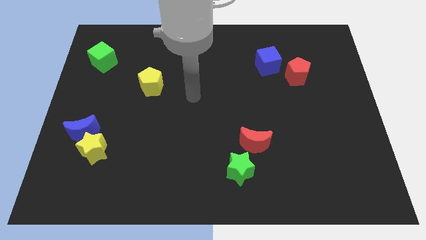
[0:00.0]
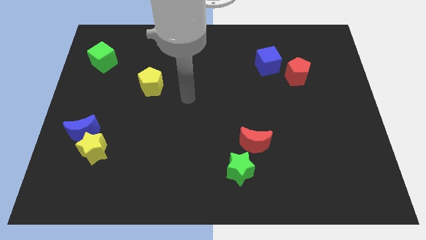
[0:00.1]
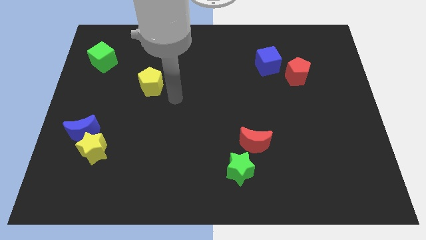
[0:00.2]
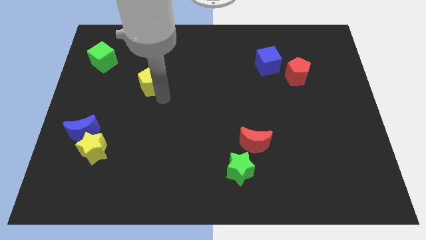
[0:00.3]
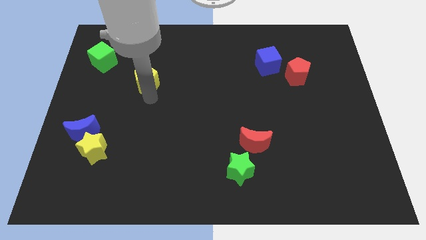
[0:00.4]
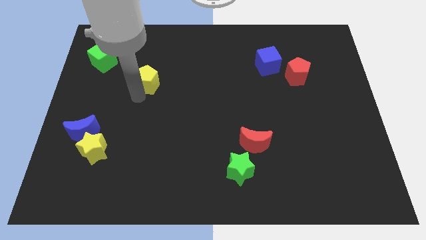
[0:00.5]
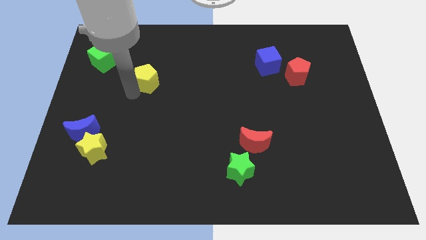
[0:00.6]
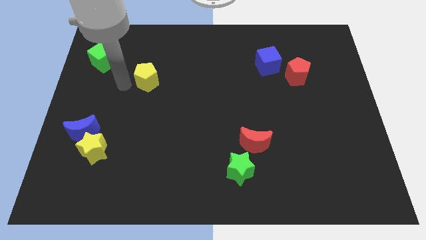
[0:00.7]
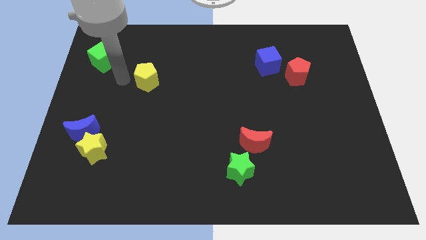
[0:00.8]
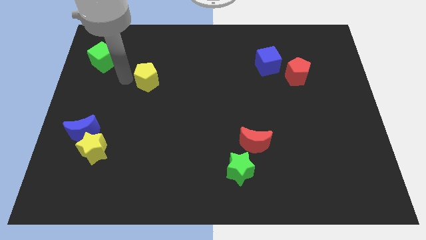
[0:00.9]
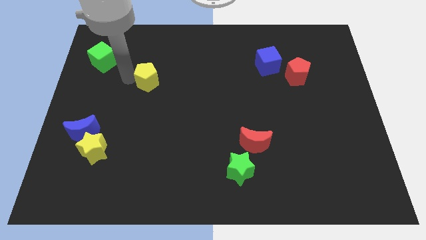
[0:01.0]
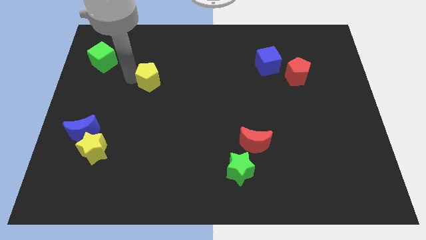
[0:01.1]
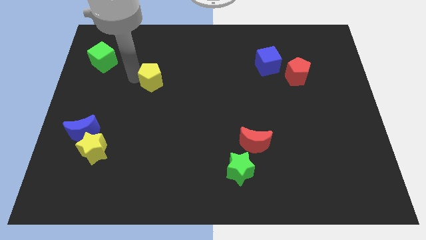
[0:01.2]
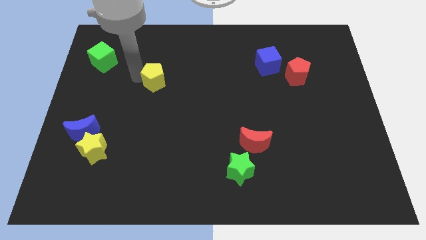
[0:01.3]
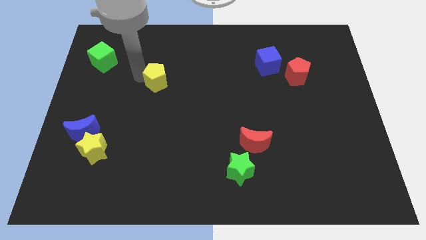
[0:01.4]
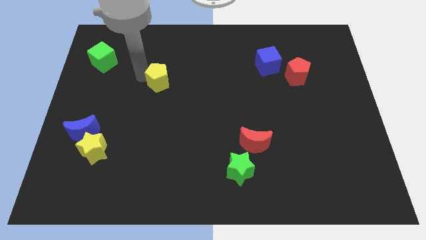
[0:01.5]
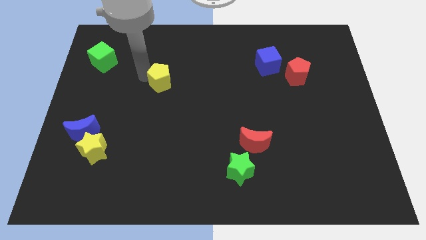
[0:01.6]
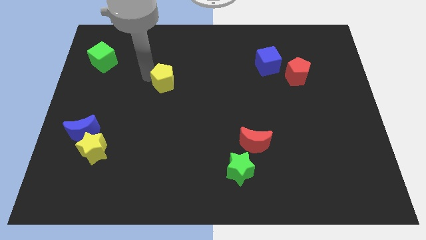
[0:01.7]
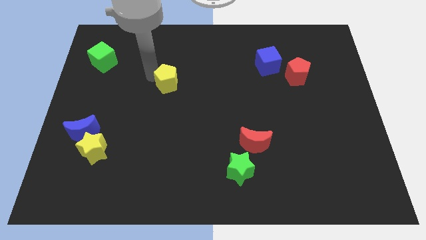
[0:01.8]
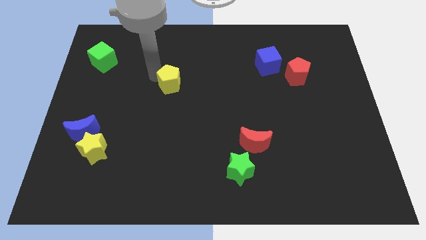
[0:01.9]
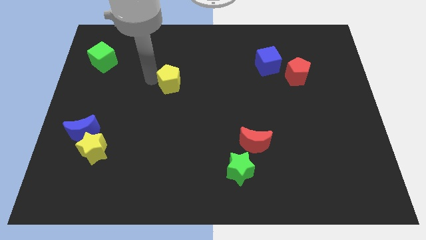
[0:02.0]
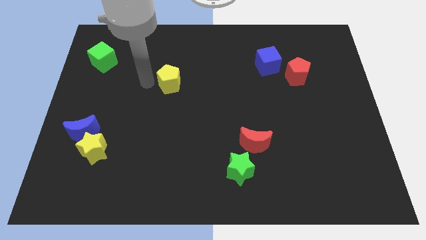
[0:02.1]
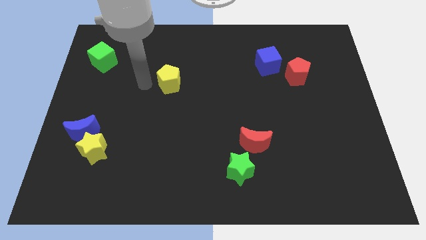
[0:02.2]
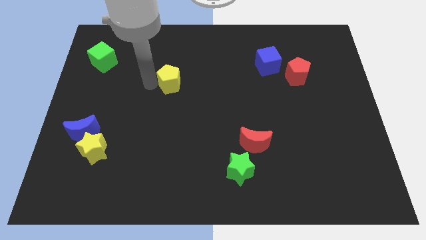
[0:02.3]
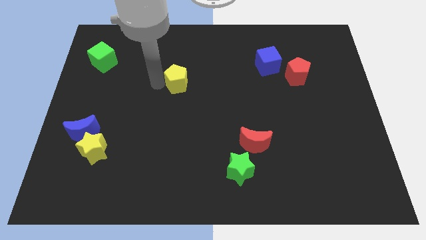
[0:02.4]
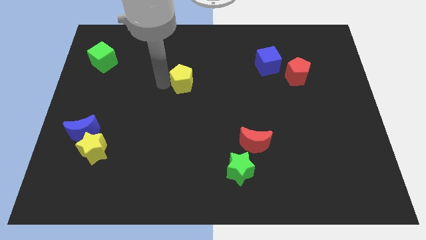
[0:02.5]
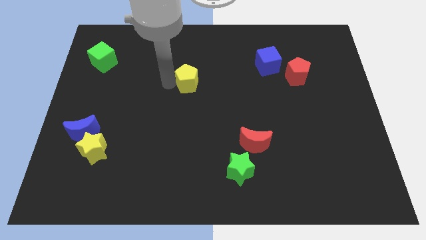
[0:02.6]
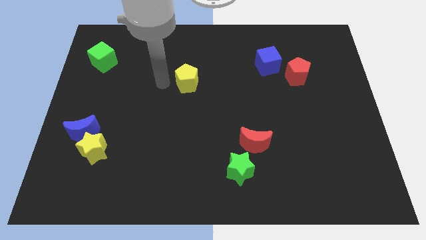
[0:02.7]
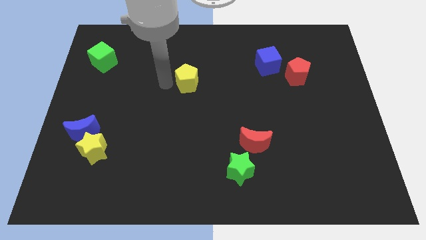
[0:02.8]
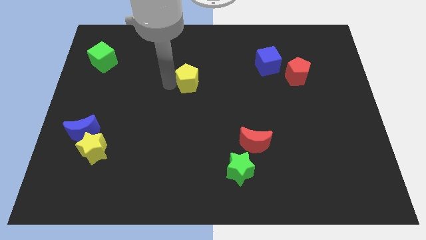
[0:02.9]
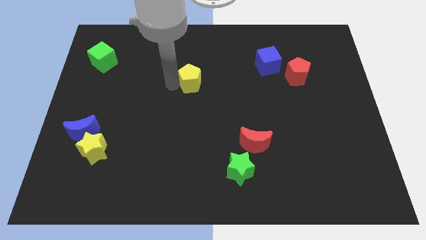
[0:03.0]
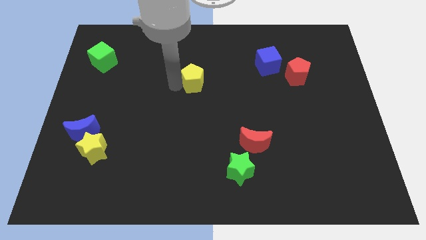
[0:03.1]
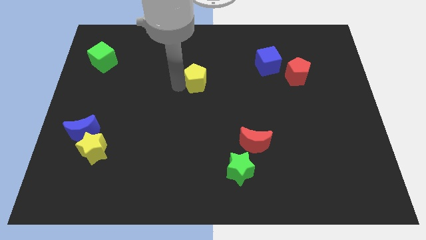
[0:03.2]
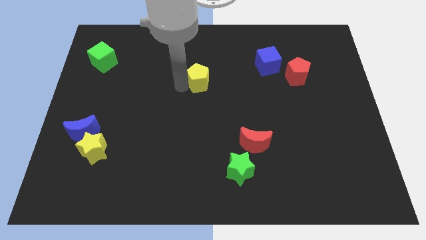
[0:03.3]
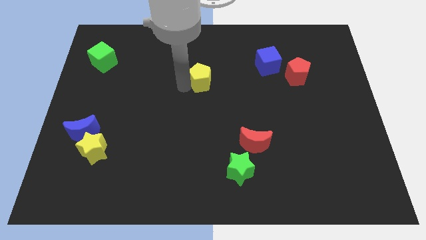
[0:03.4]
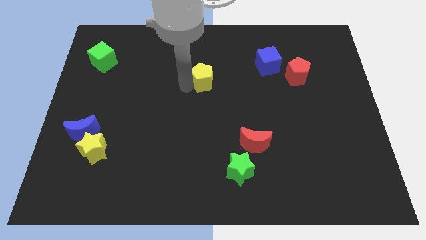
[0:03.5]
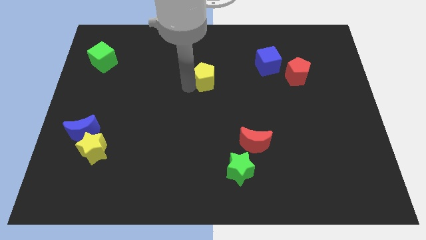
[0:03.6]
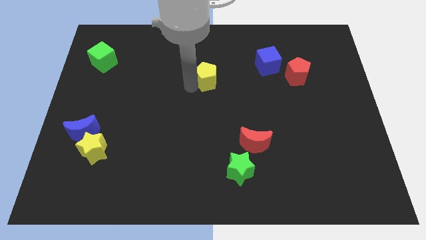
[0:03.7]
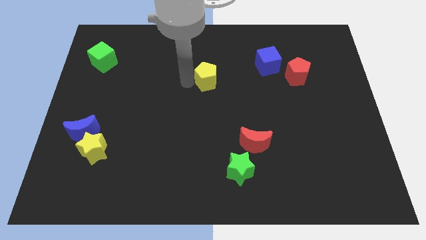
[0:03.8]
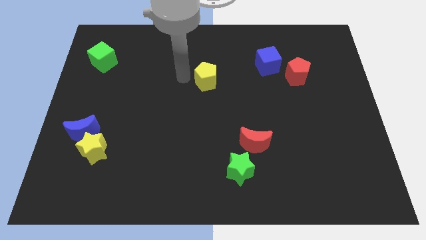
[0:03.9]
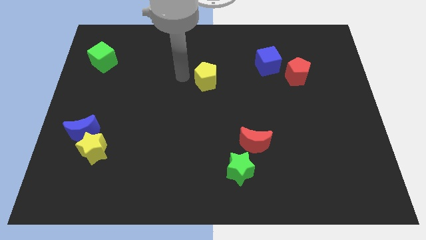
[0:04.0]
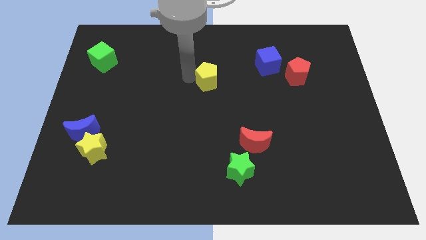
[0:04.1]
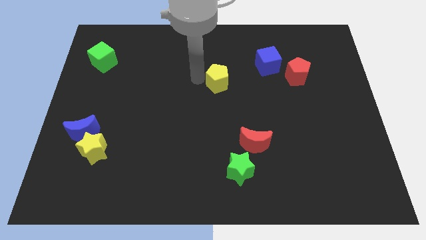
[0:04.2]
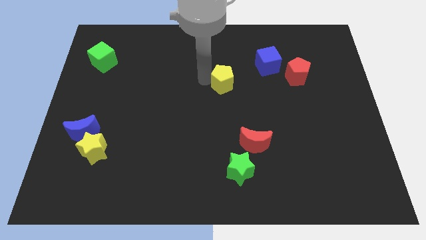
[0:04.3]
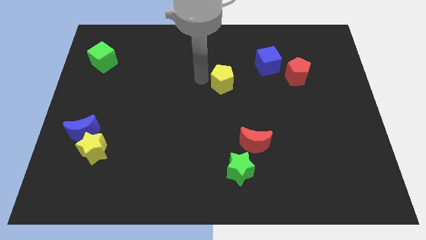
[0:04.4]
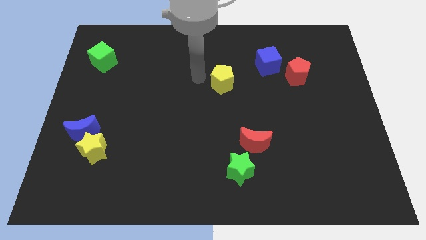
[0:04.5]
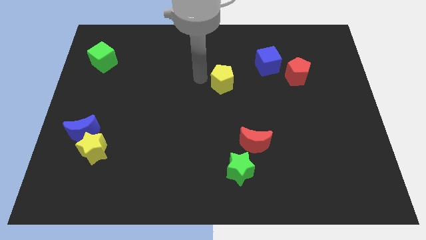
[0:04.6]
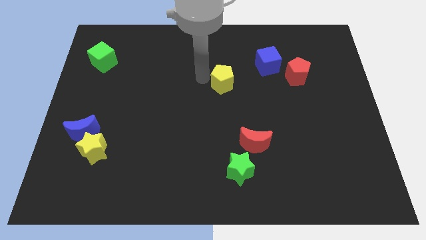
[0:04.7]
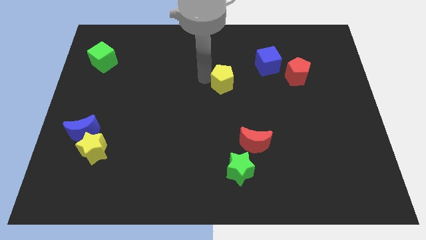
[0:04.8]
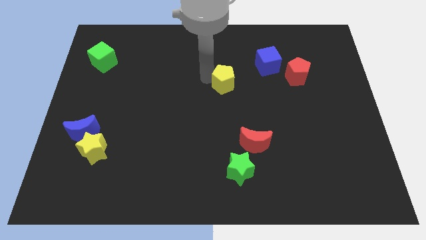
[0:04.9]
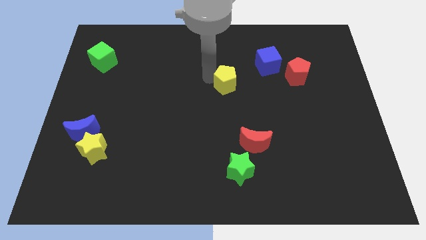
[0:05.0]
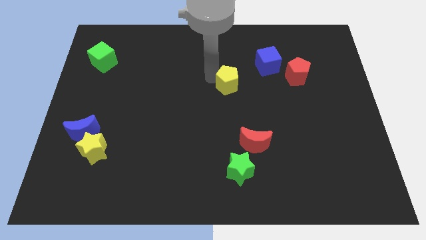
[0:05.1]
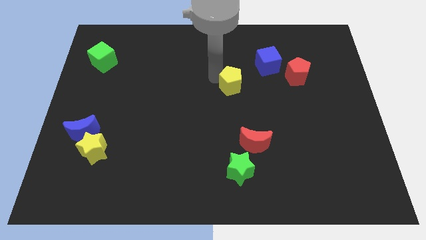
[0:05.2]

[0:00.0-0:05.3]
move the yellow pentagon to the right

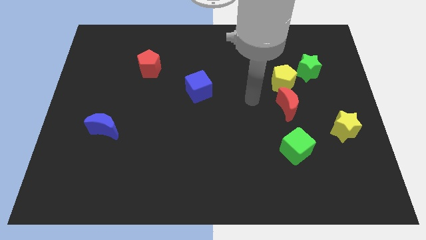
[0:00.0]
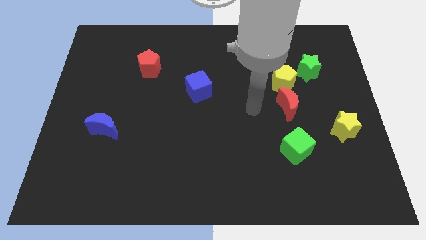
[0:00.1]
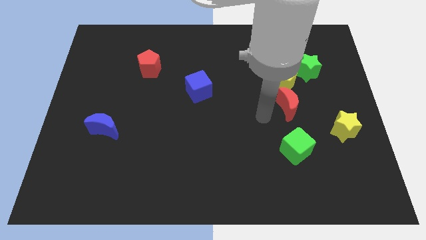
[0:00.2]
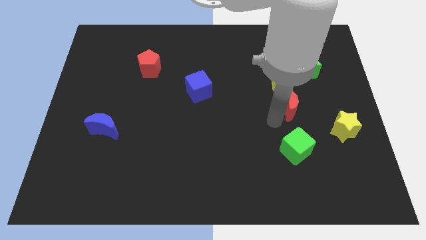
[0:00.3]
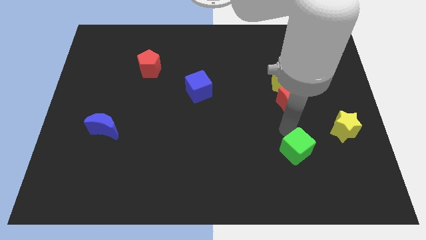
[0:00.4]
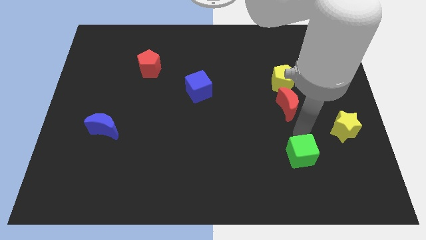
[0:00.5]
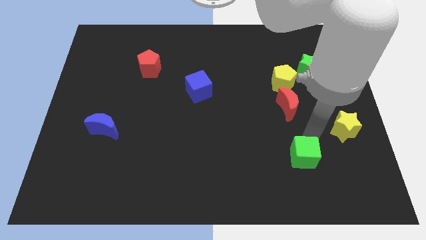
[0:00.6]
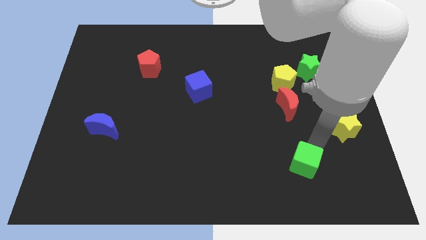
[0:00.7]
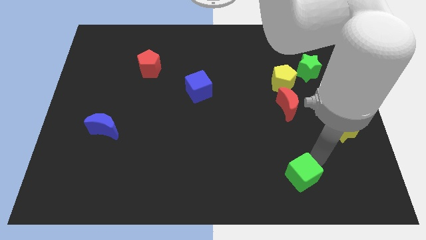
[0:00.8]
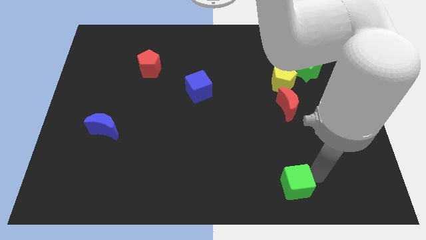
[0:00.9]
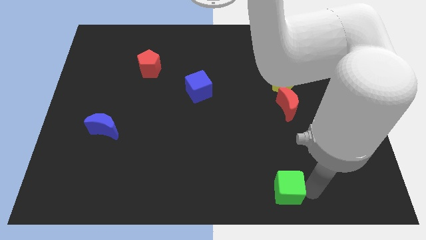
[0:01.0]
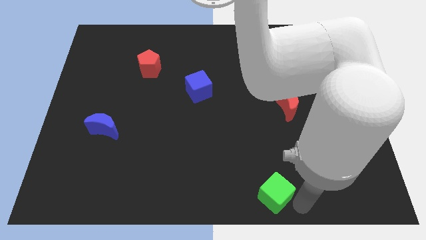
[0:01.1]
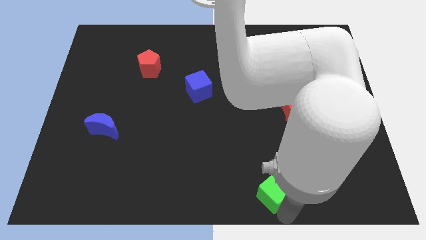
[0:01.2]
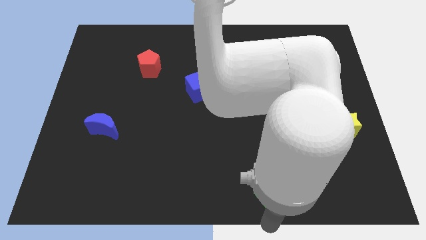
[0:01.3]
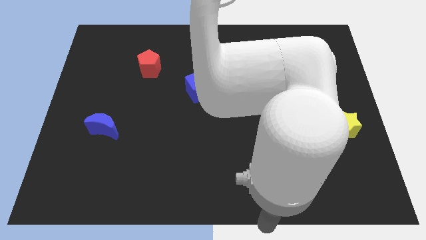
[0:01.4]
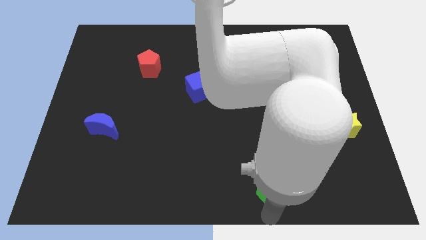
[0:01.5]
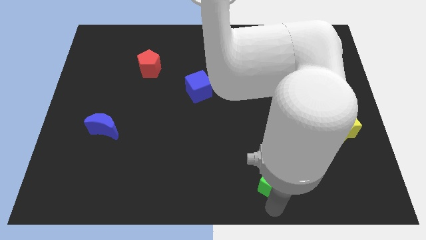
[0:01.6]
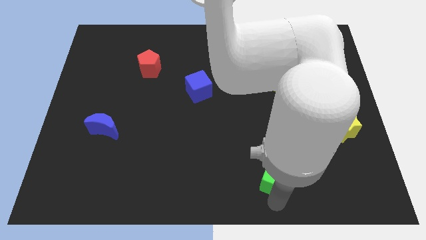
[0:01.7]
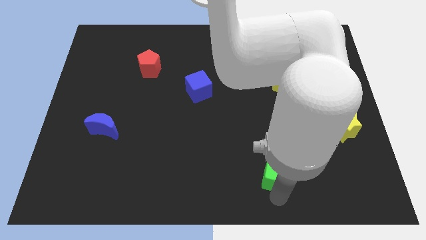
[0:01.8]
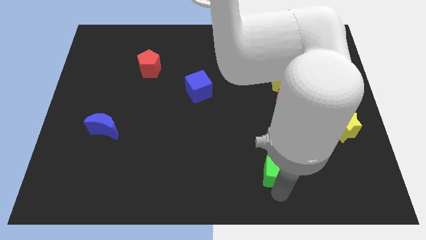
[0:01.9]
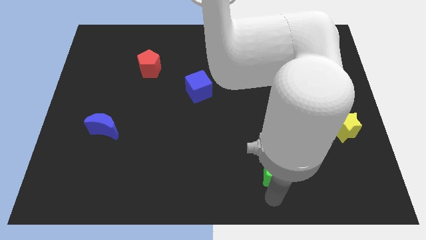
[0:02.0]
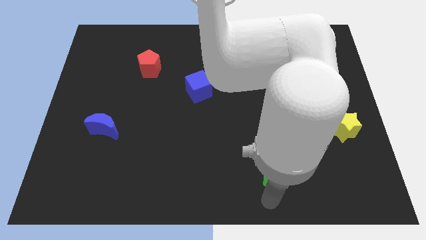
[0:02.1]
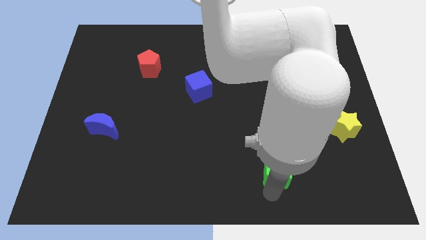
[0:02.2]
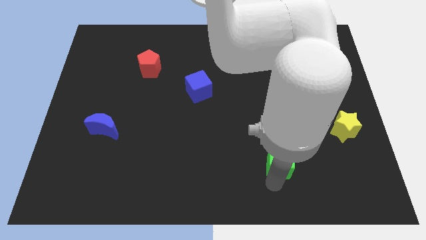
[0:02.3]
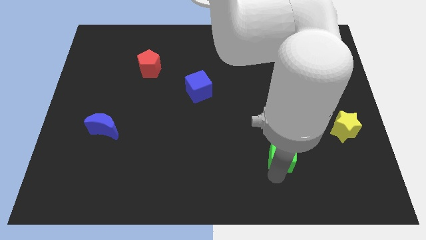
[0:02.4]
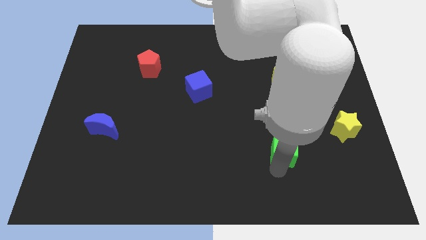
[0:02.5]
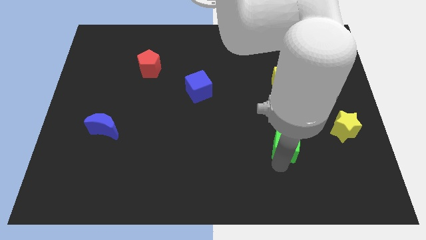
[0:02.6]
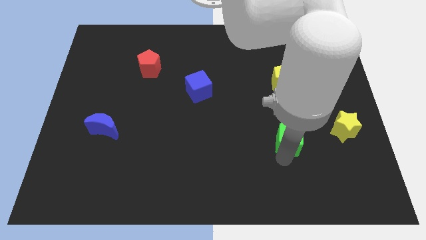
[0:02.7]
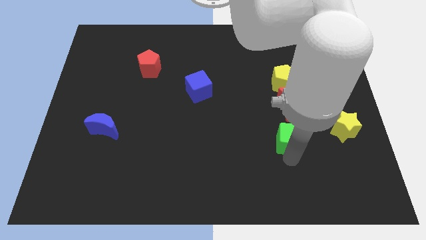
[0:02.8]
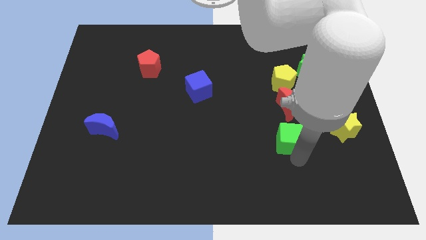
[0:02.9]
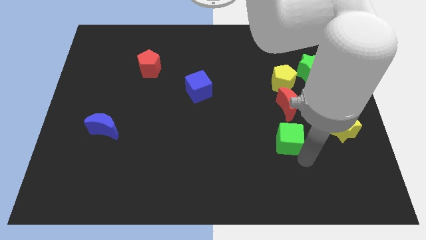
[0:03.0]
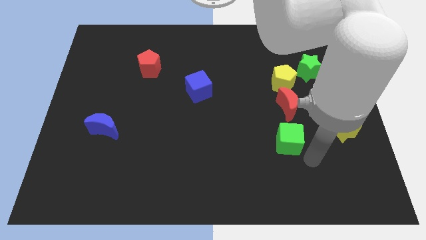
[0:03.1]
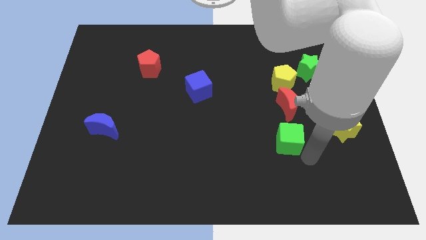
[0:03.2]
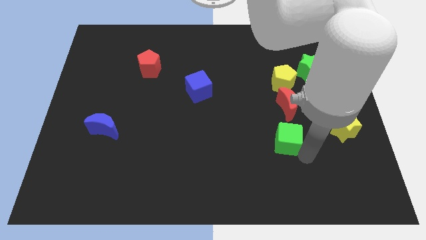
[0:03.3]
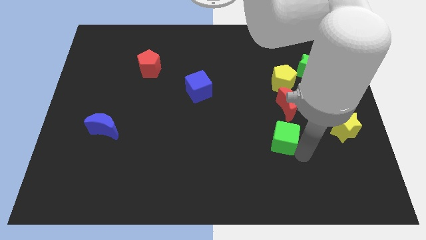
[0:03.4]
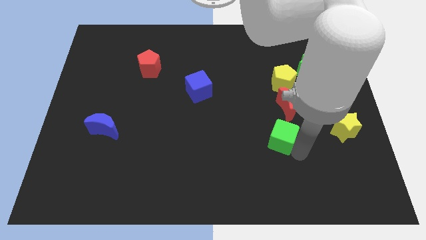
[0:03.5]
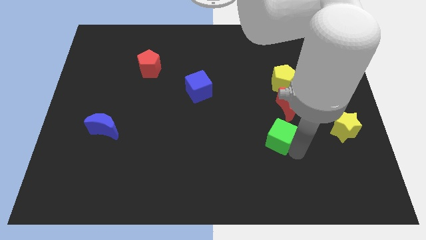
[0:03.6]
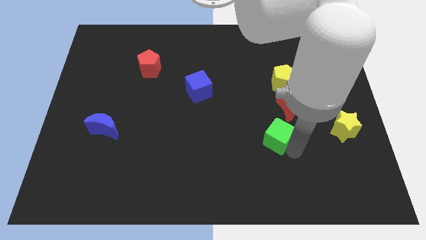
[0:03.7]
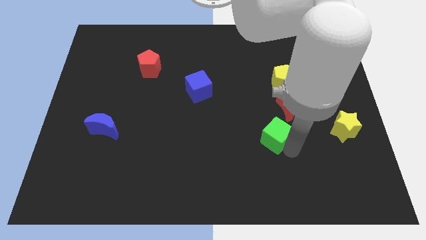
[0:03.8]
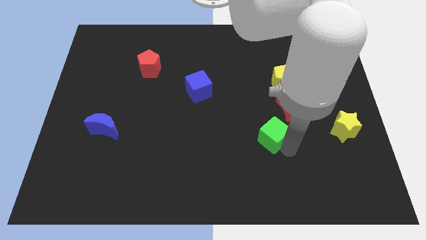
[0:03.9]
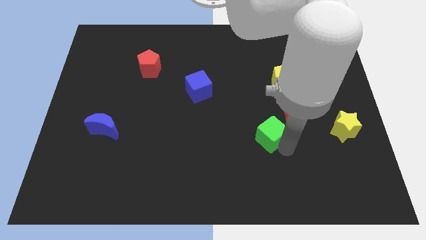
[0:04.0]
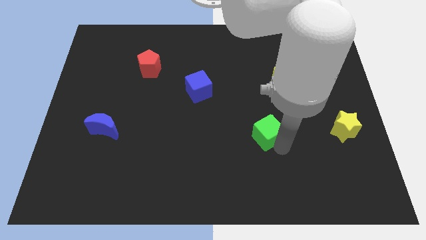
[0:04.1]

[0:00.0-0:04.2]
slide the green cube upwards and to the left a bit
